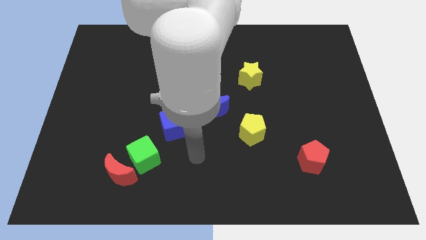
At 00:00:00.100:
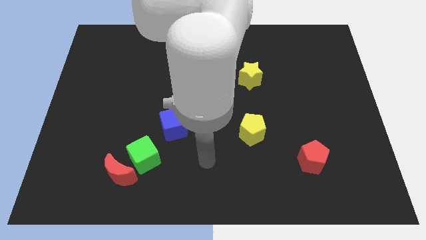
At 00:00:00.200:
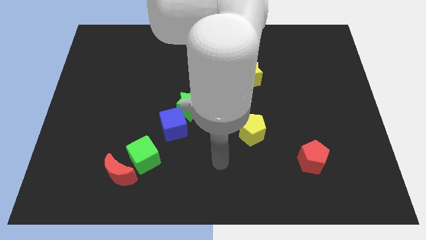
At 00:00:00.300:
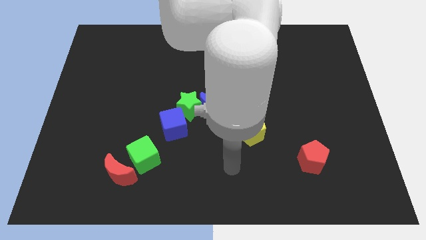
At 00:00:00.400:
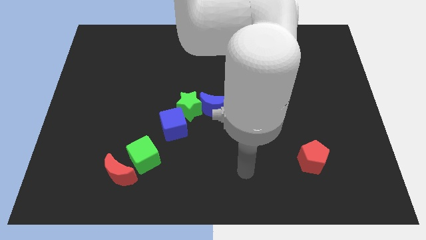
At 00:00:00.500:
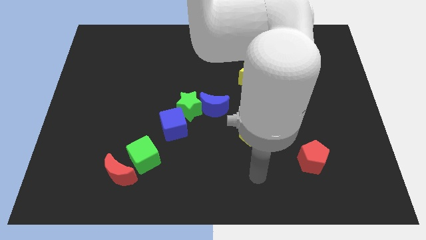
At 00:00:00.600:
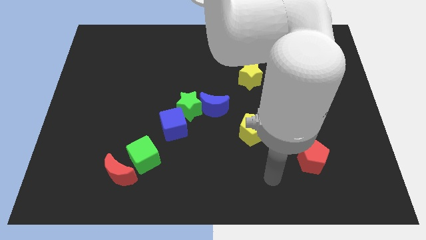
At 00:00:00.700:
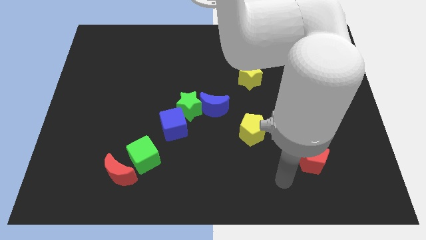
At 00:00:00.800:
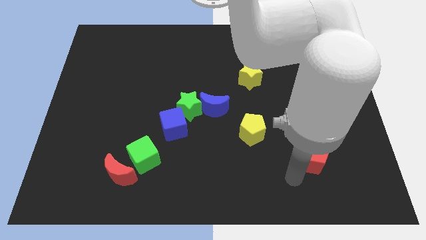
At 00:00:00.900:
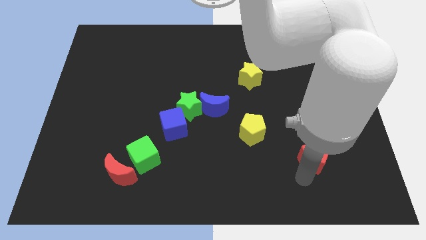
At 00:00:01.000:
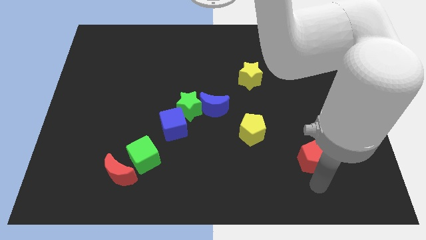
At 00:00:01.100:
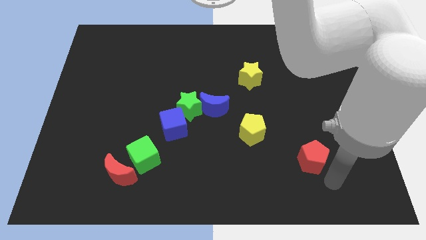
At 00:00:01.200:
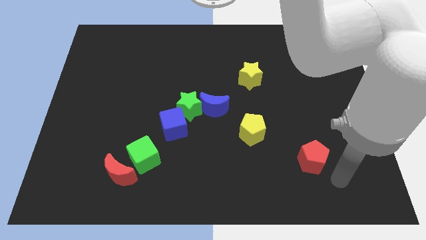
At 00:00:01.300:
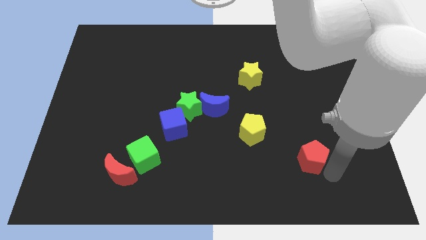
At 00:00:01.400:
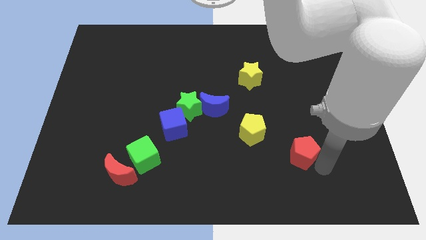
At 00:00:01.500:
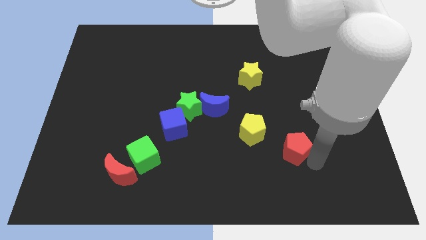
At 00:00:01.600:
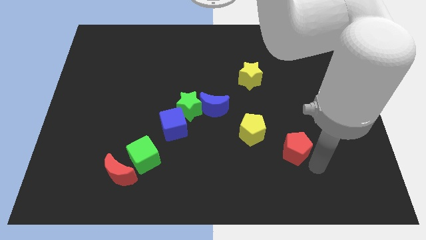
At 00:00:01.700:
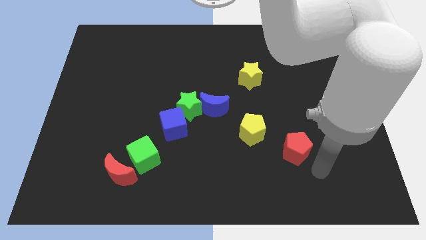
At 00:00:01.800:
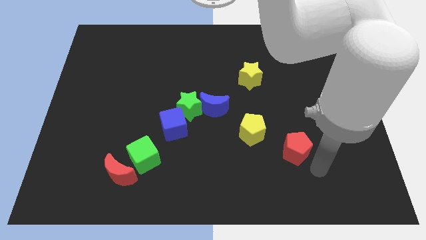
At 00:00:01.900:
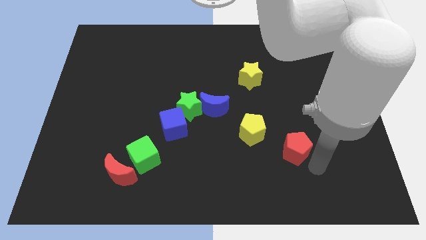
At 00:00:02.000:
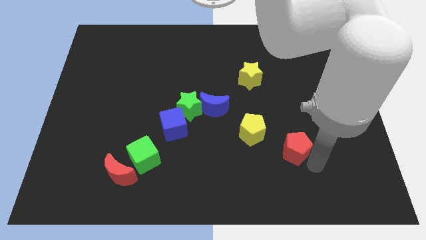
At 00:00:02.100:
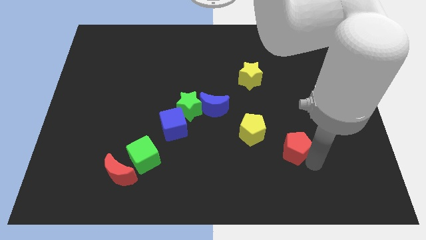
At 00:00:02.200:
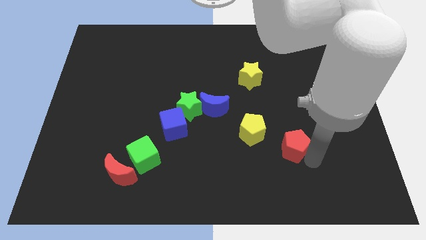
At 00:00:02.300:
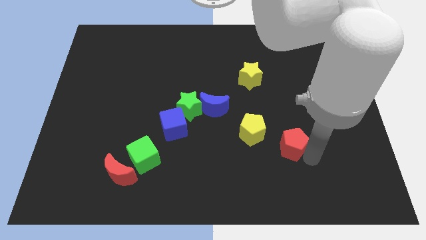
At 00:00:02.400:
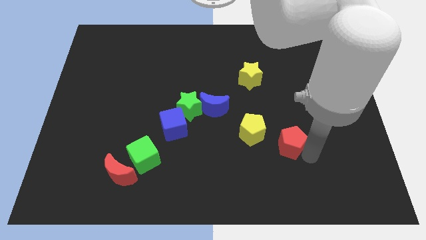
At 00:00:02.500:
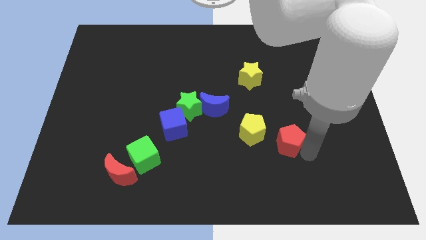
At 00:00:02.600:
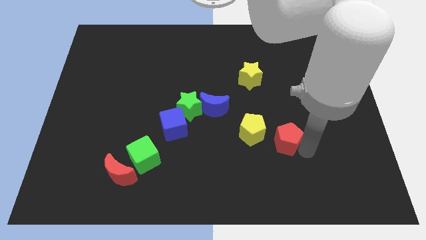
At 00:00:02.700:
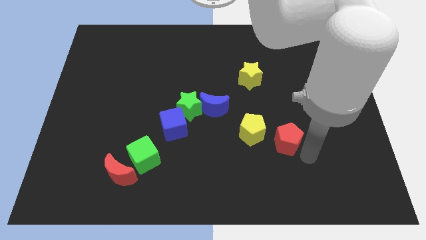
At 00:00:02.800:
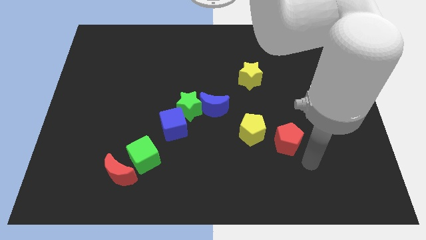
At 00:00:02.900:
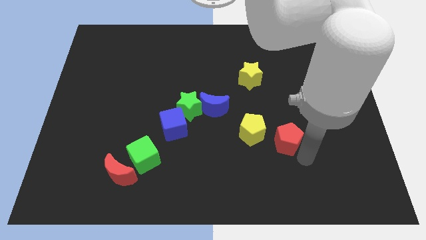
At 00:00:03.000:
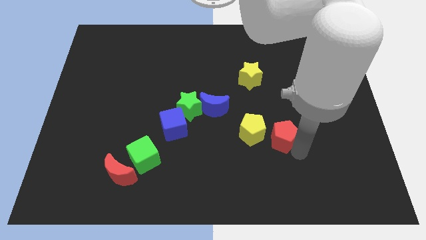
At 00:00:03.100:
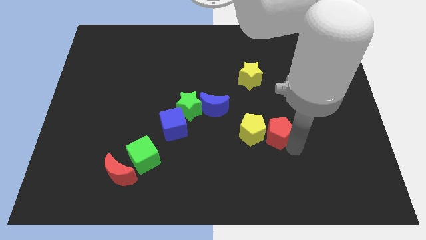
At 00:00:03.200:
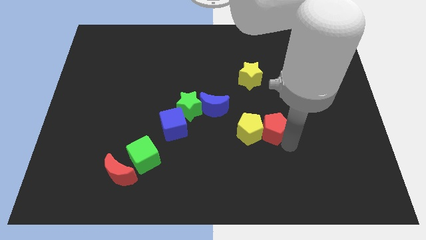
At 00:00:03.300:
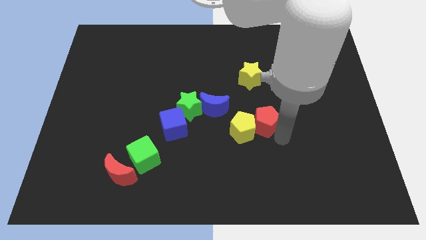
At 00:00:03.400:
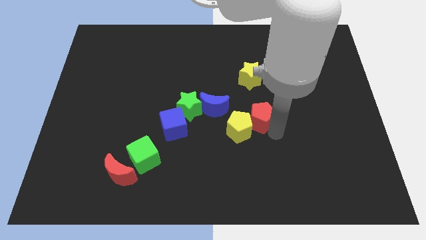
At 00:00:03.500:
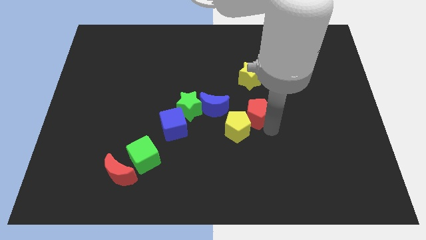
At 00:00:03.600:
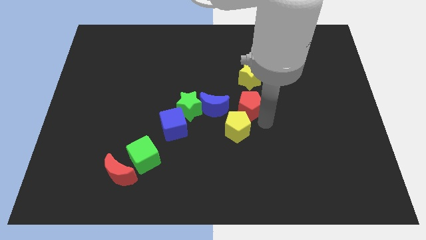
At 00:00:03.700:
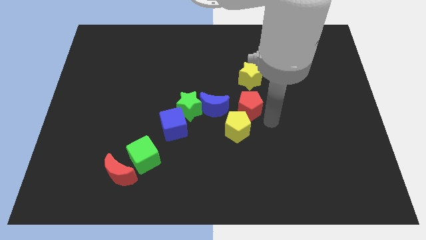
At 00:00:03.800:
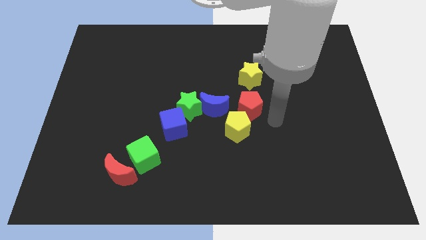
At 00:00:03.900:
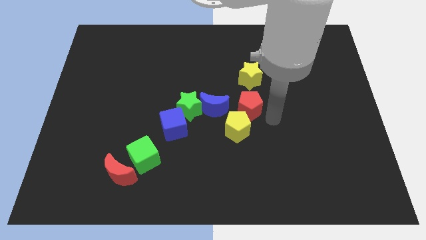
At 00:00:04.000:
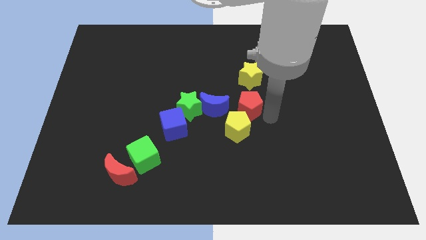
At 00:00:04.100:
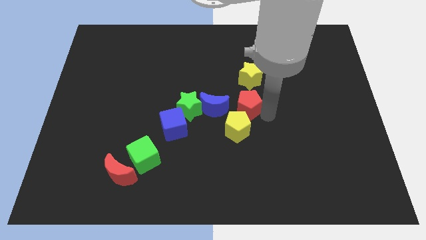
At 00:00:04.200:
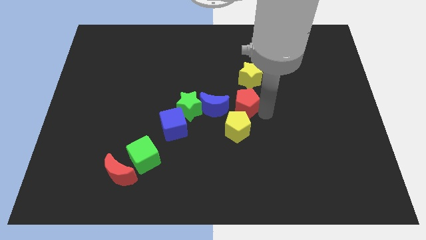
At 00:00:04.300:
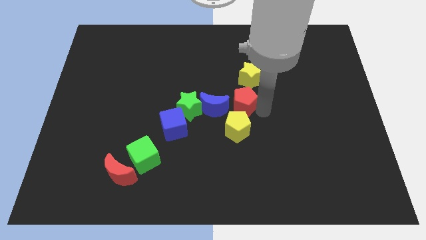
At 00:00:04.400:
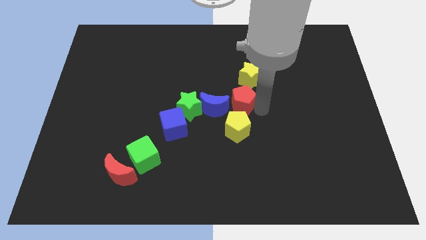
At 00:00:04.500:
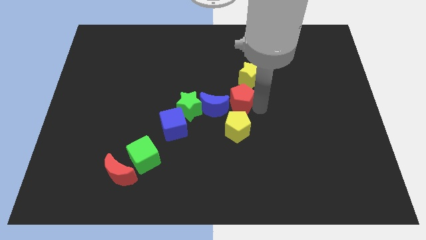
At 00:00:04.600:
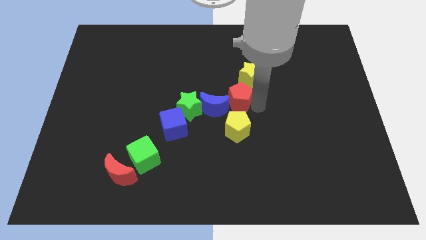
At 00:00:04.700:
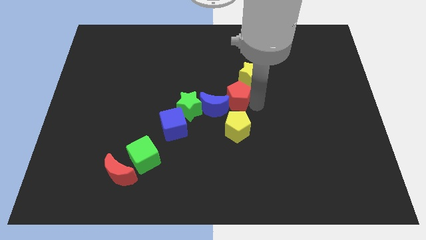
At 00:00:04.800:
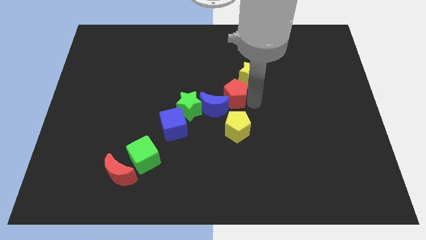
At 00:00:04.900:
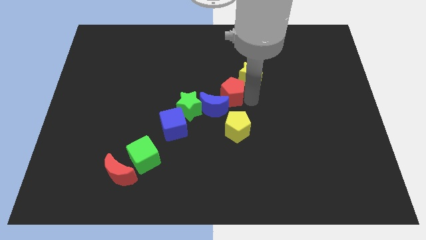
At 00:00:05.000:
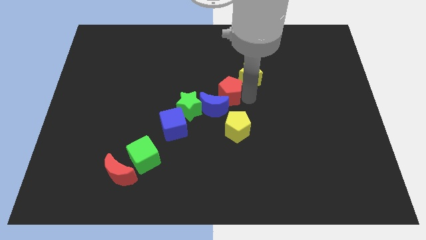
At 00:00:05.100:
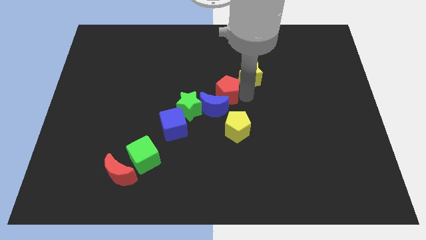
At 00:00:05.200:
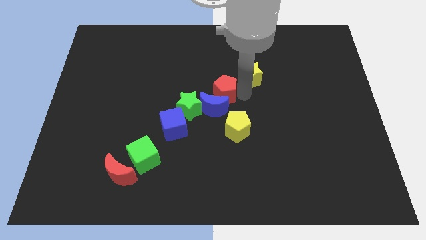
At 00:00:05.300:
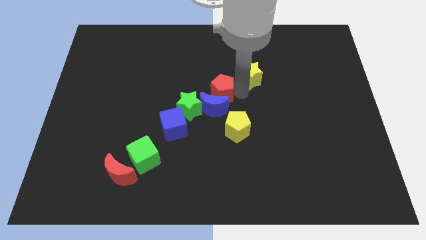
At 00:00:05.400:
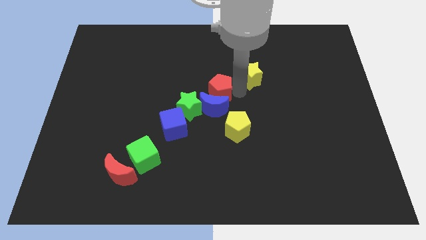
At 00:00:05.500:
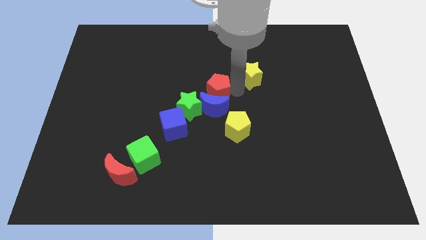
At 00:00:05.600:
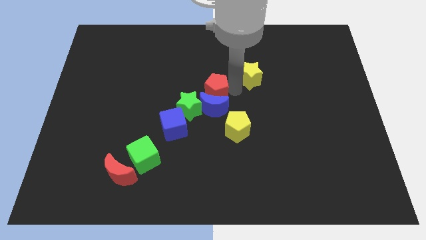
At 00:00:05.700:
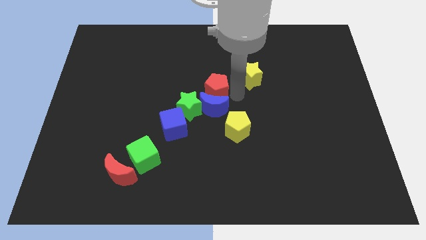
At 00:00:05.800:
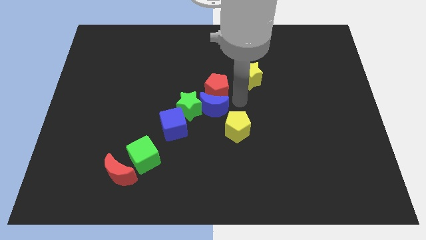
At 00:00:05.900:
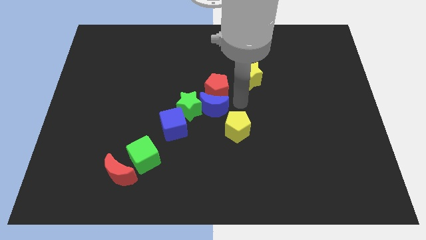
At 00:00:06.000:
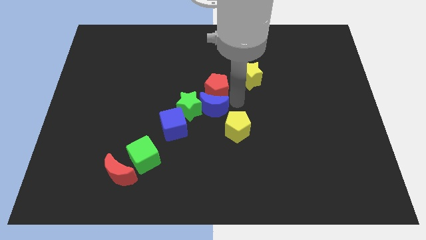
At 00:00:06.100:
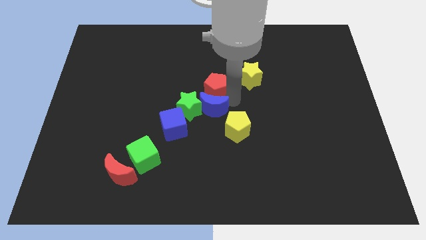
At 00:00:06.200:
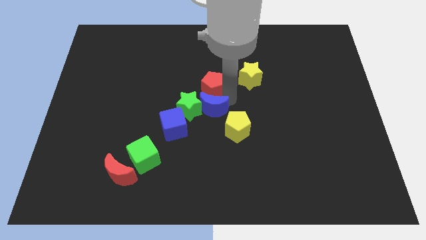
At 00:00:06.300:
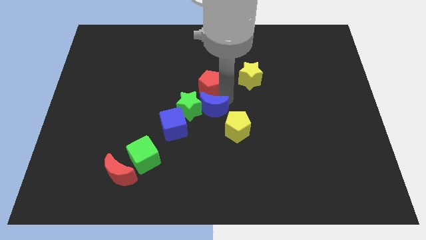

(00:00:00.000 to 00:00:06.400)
push the red pentagon to the top side of the green star
